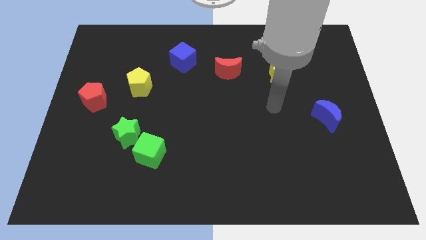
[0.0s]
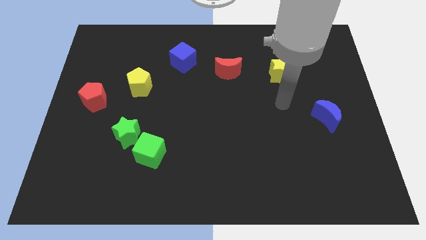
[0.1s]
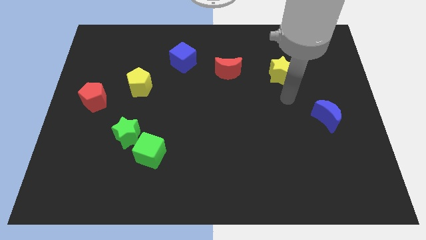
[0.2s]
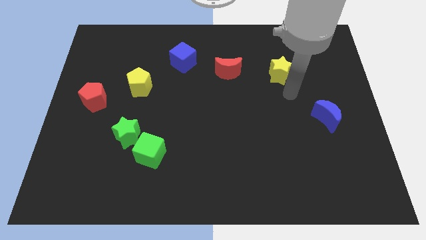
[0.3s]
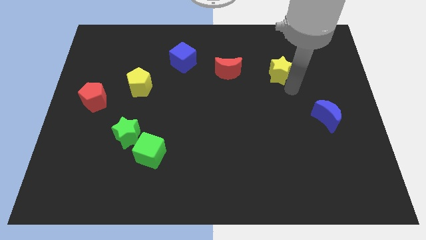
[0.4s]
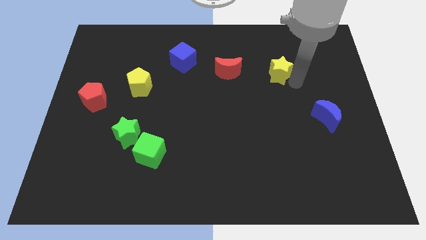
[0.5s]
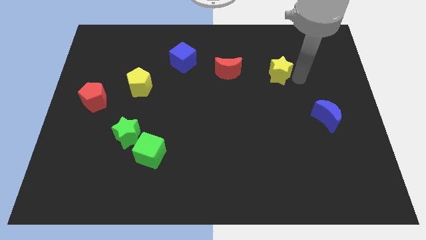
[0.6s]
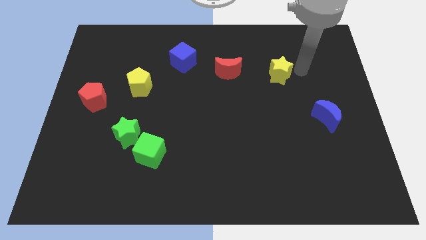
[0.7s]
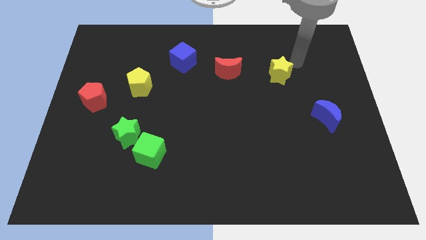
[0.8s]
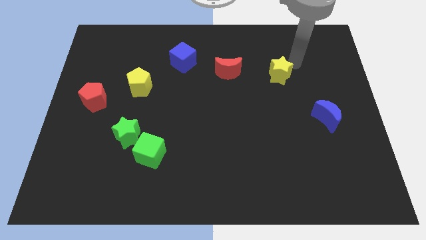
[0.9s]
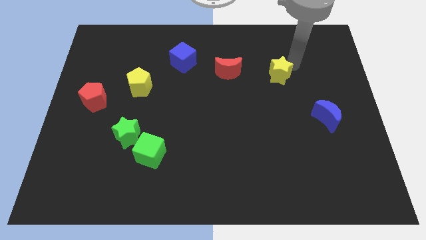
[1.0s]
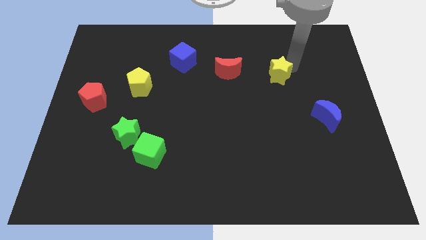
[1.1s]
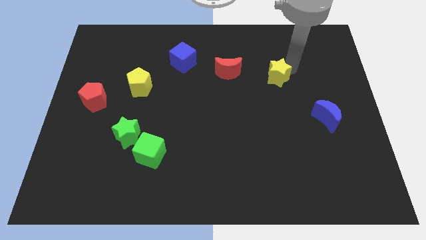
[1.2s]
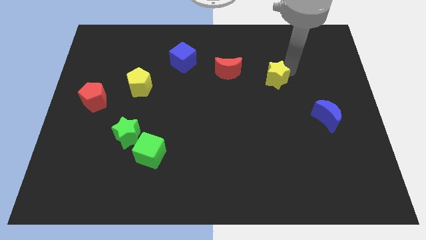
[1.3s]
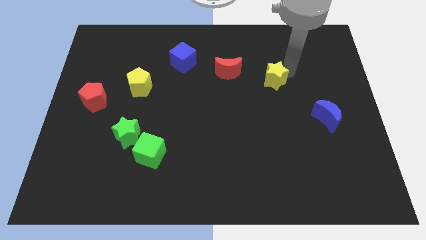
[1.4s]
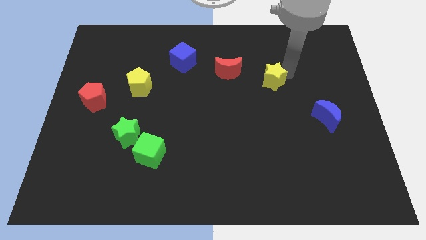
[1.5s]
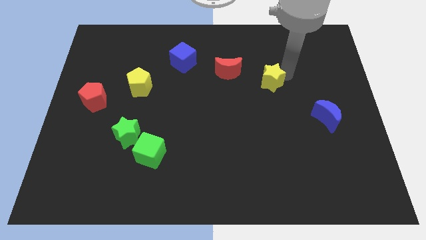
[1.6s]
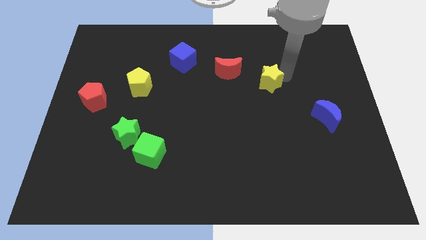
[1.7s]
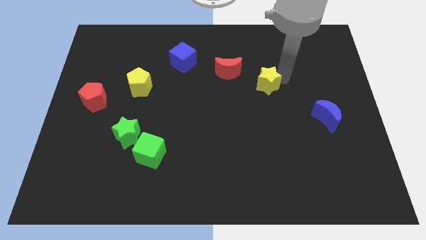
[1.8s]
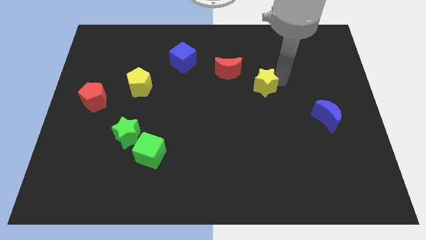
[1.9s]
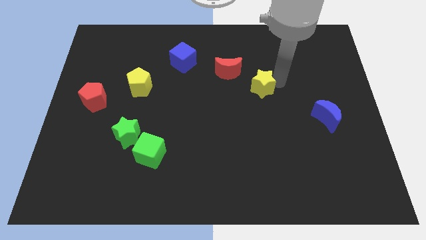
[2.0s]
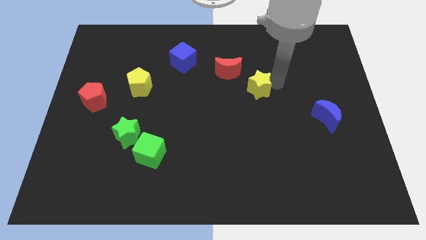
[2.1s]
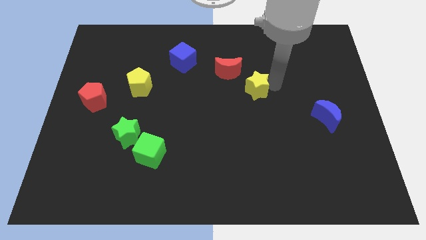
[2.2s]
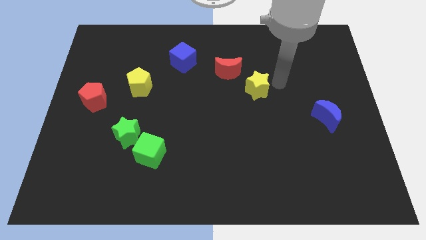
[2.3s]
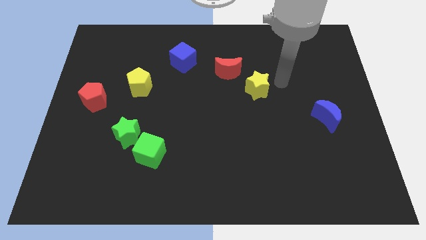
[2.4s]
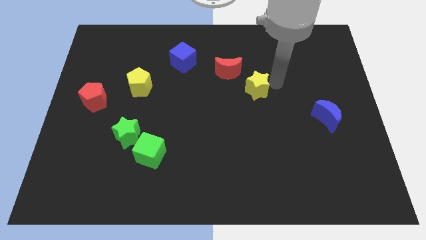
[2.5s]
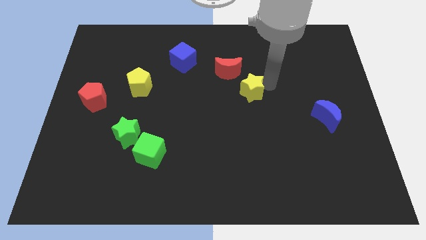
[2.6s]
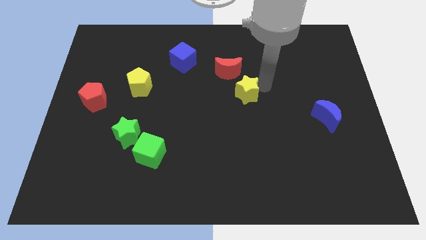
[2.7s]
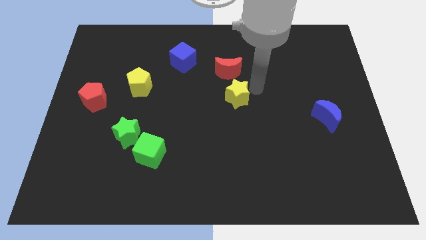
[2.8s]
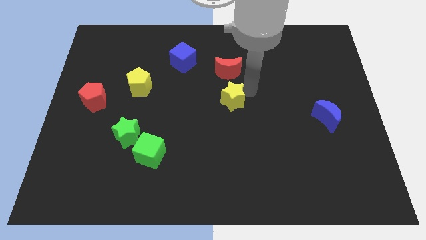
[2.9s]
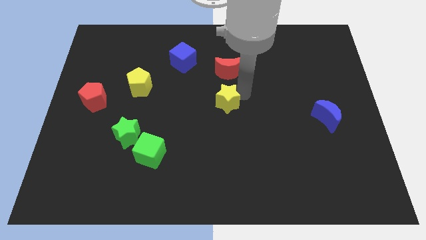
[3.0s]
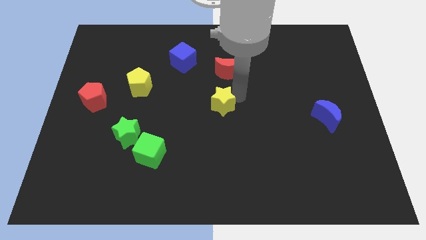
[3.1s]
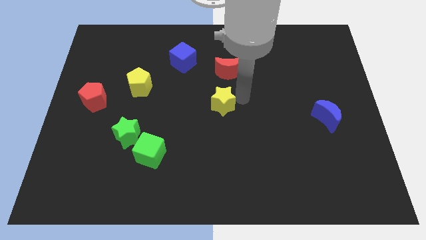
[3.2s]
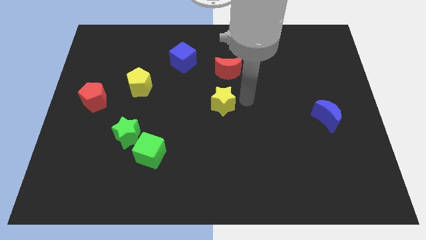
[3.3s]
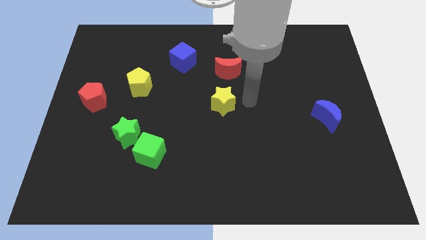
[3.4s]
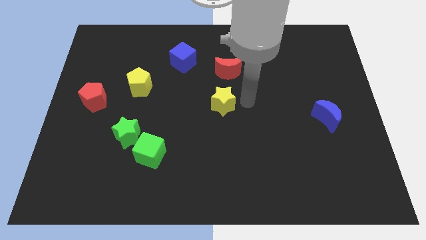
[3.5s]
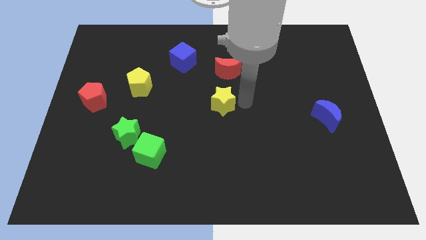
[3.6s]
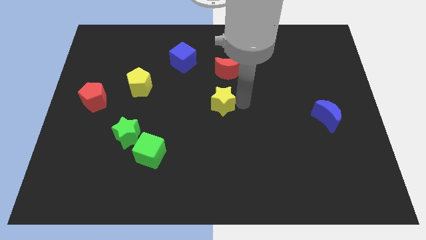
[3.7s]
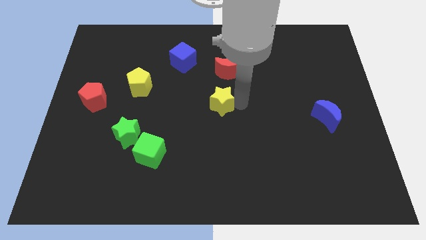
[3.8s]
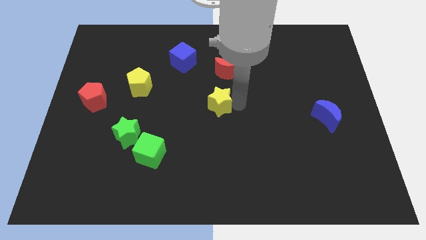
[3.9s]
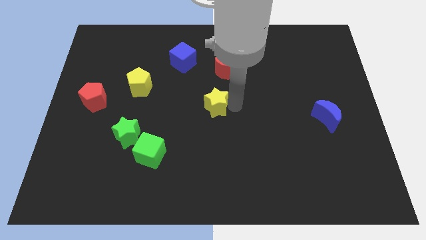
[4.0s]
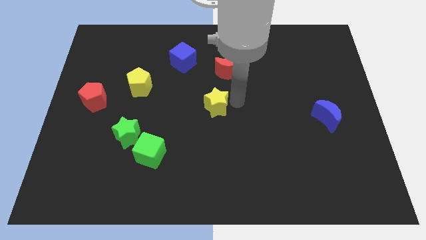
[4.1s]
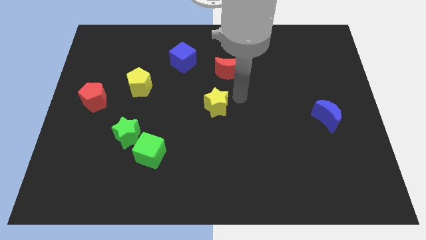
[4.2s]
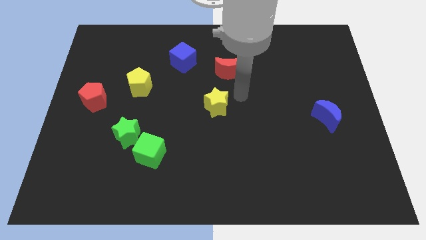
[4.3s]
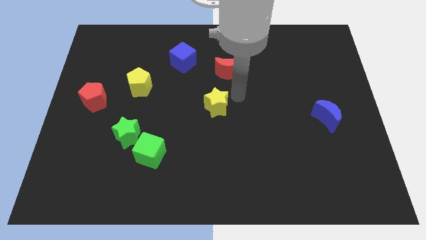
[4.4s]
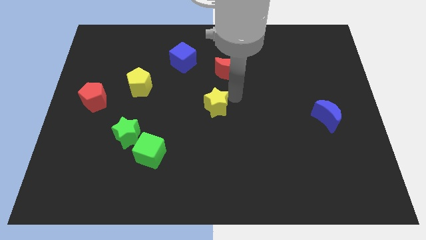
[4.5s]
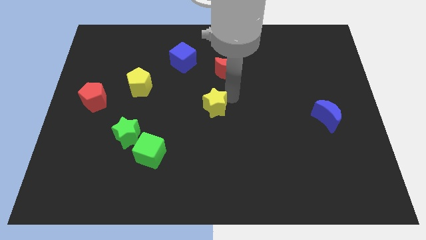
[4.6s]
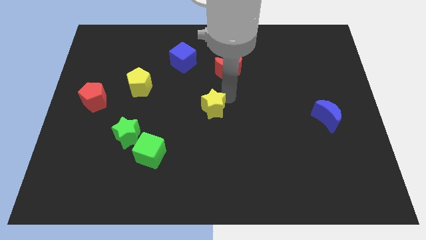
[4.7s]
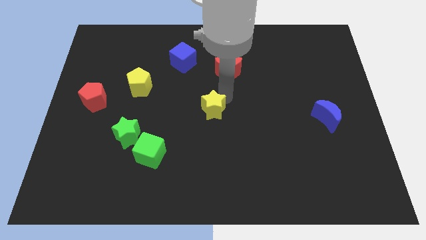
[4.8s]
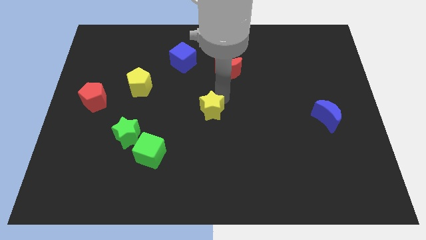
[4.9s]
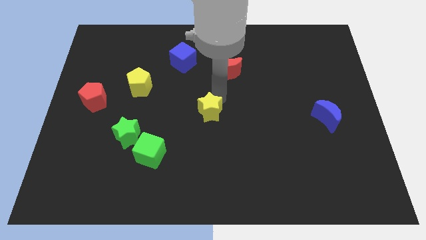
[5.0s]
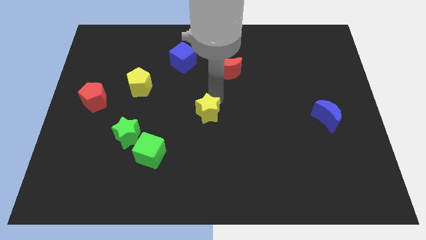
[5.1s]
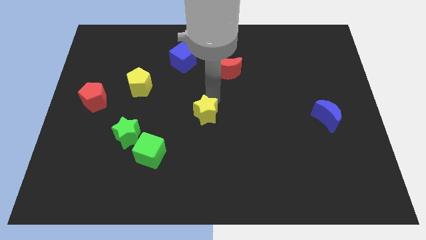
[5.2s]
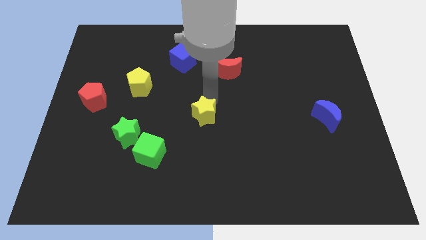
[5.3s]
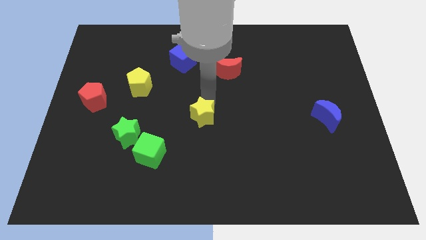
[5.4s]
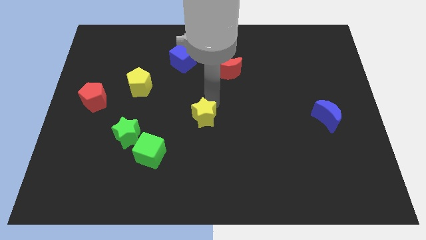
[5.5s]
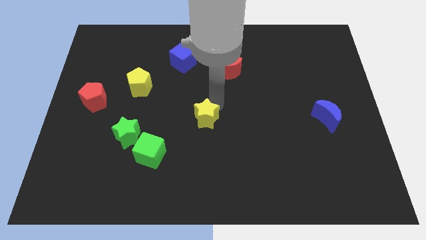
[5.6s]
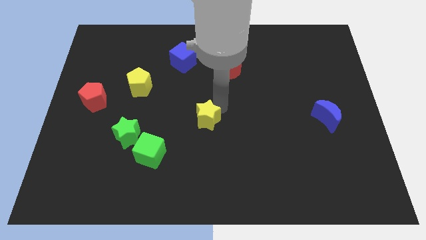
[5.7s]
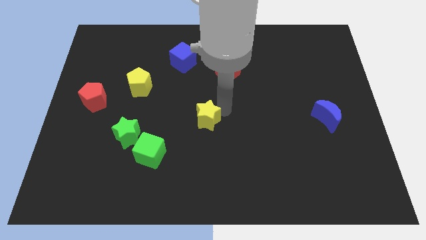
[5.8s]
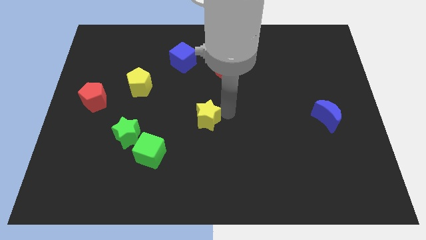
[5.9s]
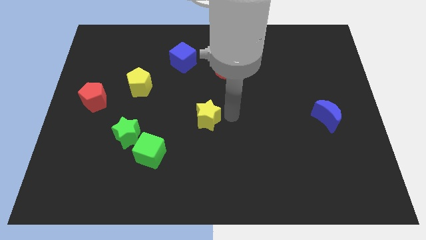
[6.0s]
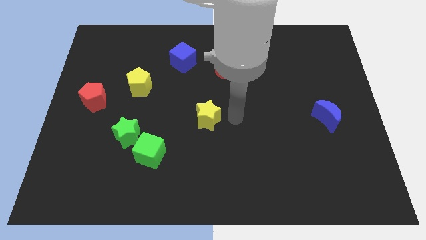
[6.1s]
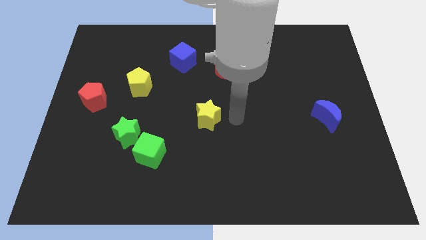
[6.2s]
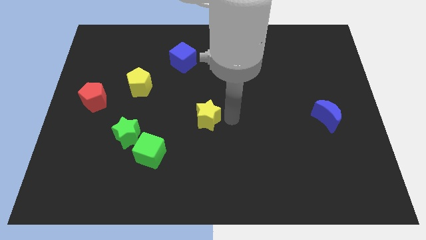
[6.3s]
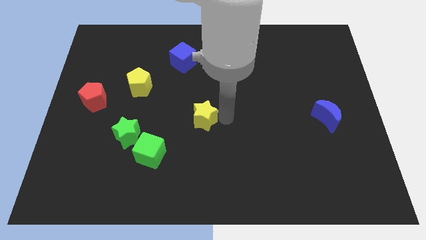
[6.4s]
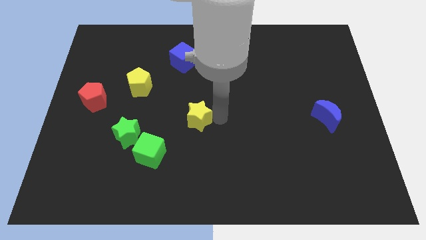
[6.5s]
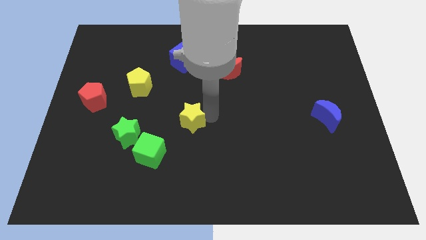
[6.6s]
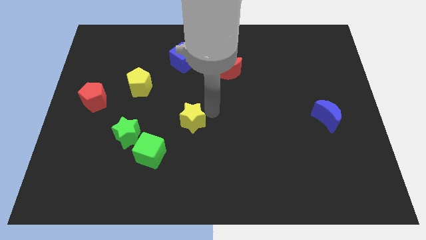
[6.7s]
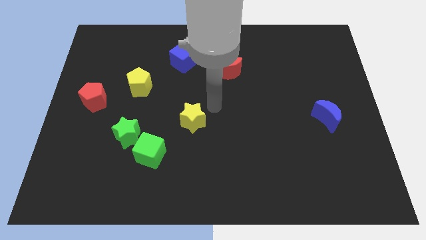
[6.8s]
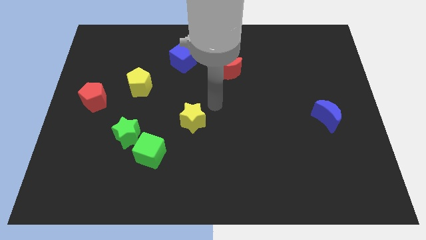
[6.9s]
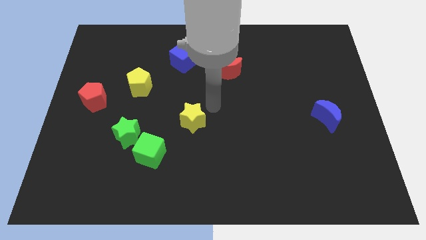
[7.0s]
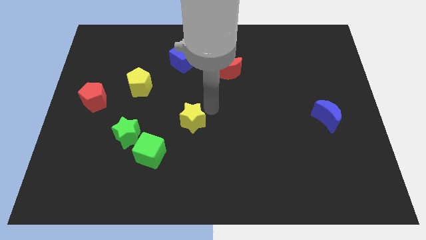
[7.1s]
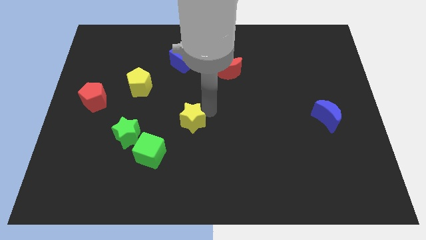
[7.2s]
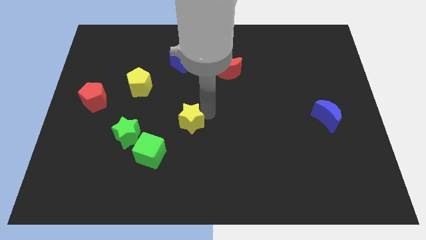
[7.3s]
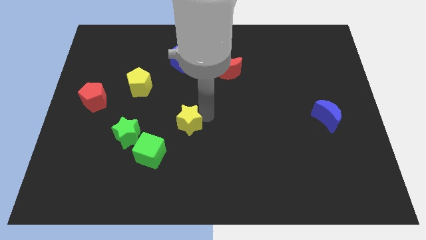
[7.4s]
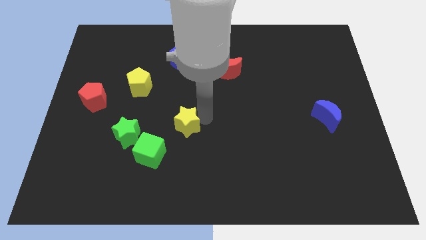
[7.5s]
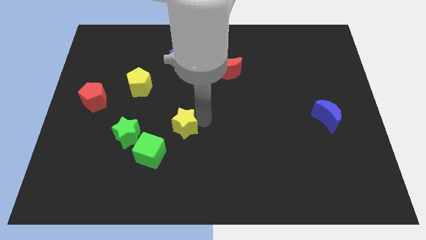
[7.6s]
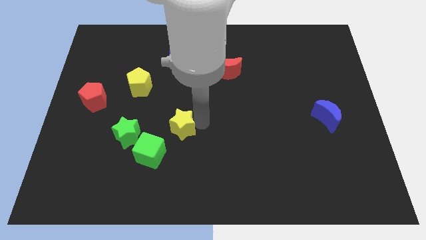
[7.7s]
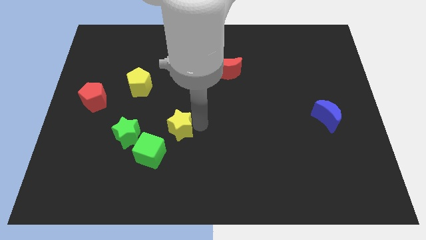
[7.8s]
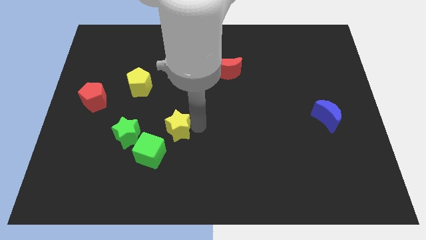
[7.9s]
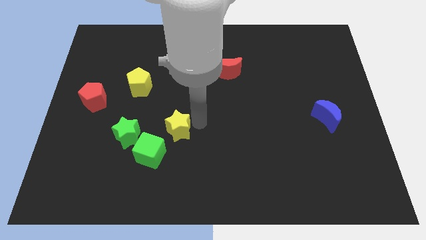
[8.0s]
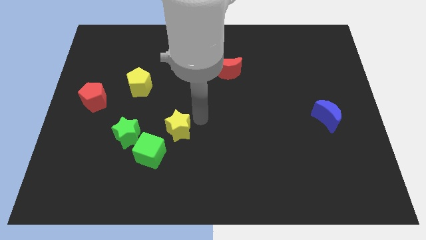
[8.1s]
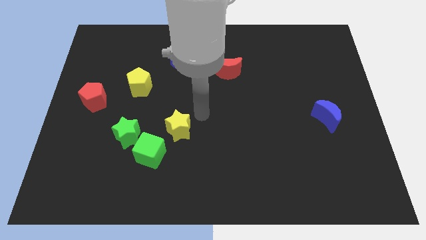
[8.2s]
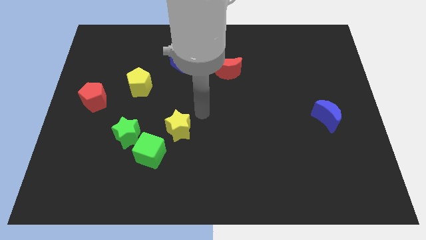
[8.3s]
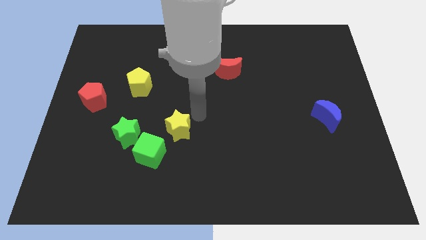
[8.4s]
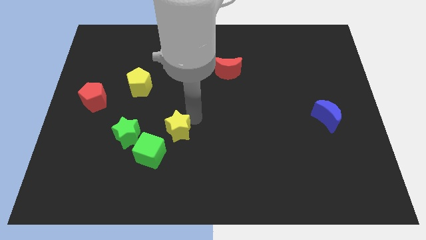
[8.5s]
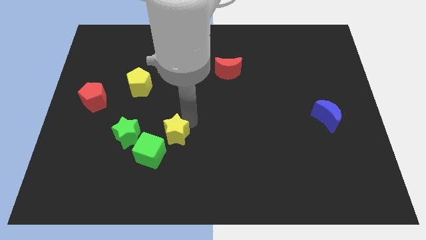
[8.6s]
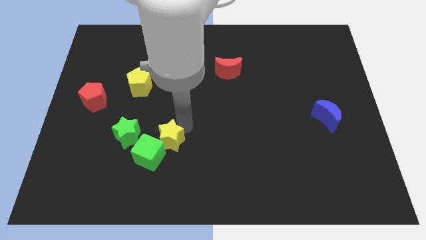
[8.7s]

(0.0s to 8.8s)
put the yellow star to the green cube
